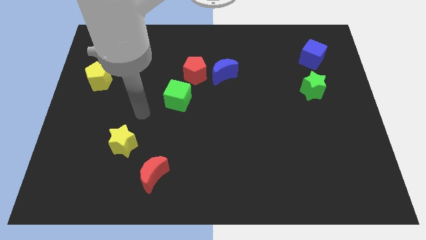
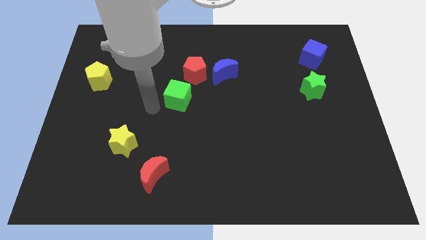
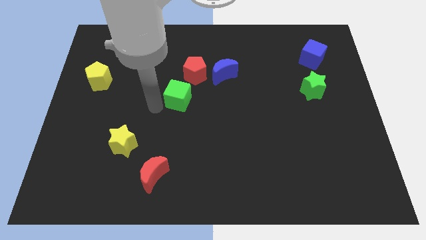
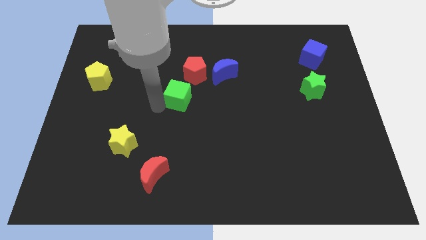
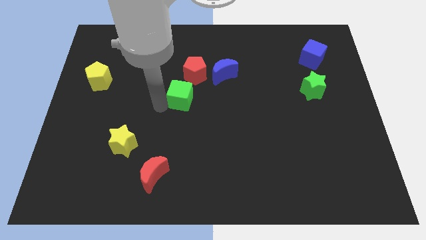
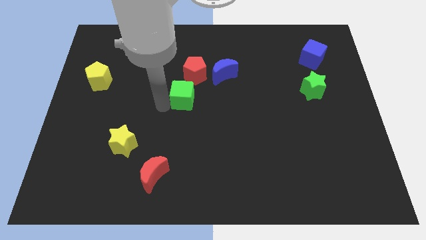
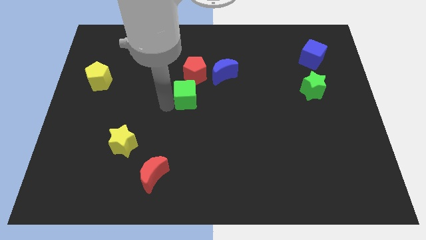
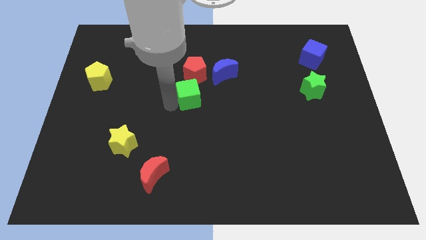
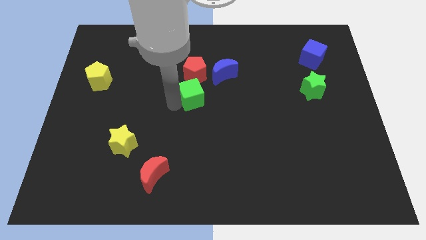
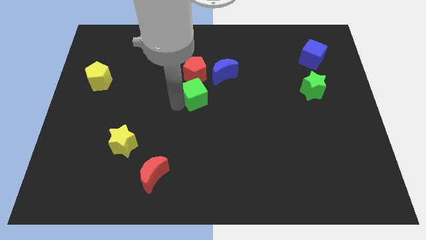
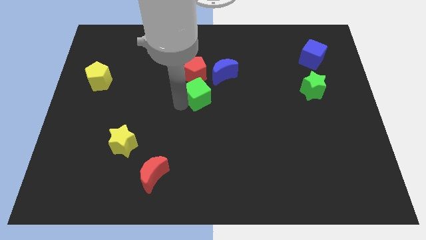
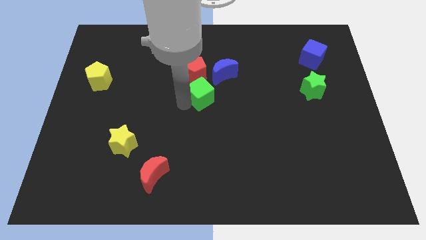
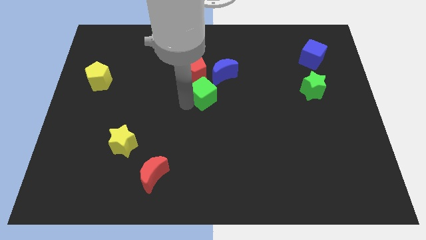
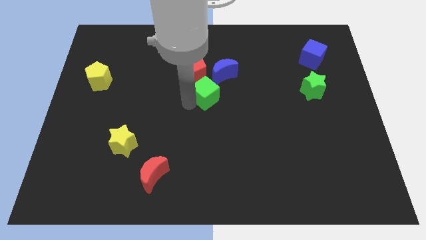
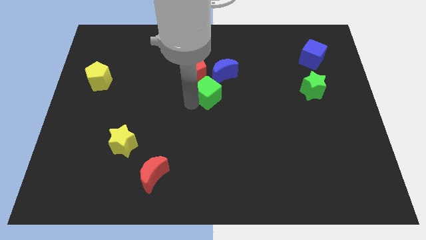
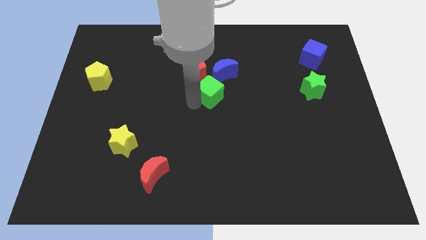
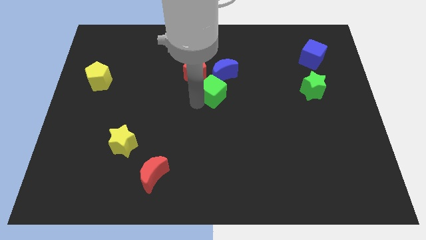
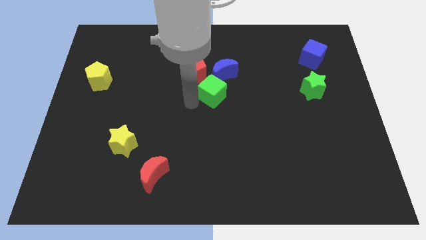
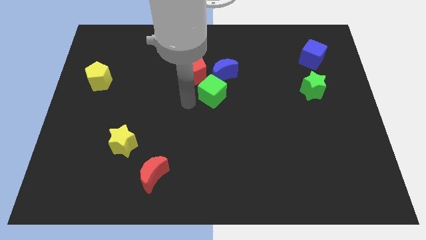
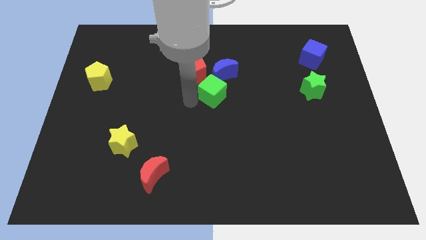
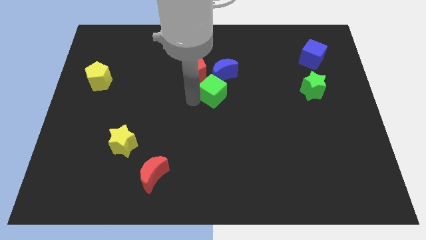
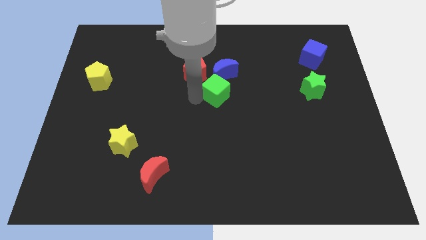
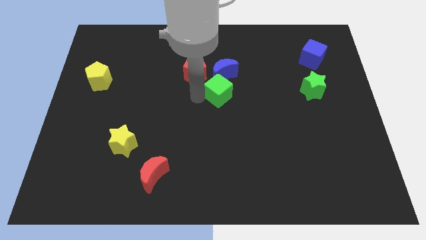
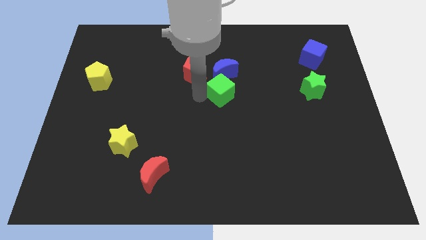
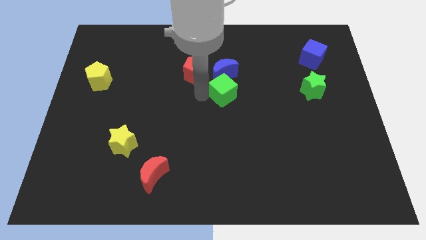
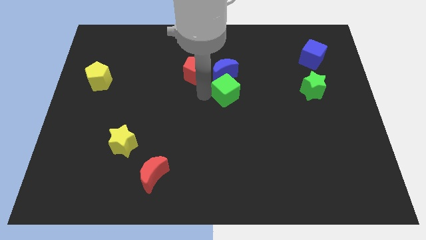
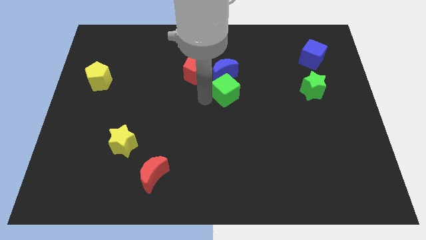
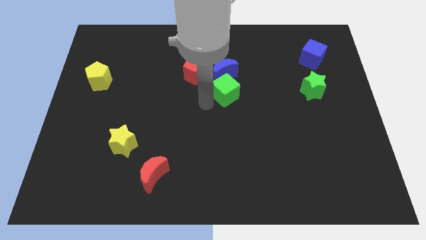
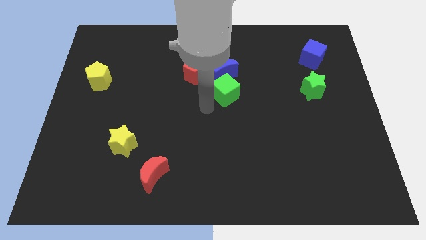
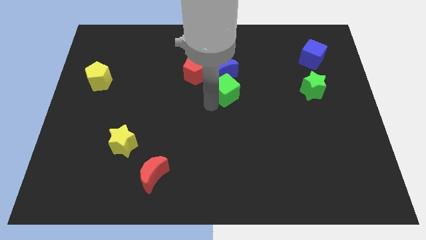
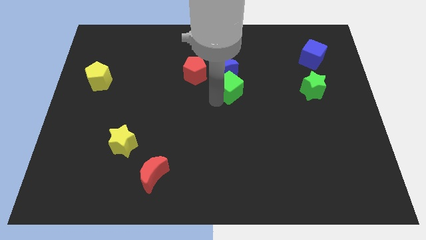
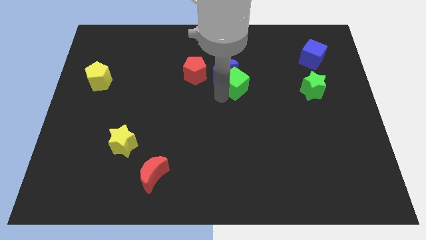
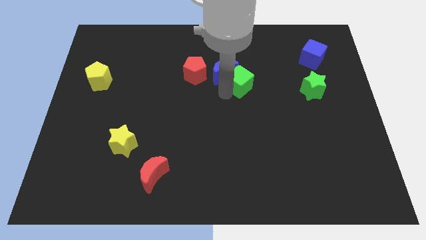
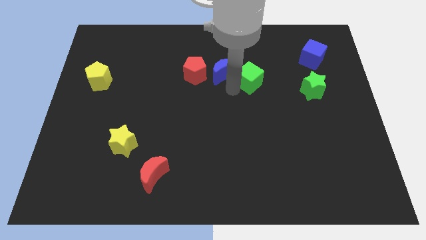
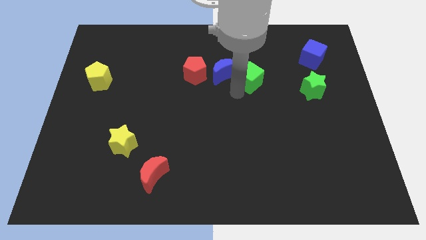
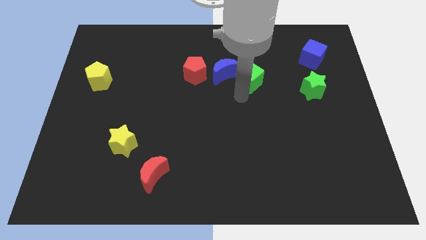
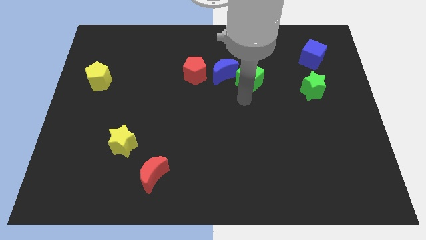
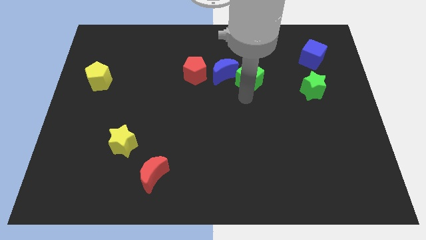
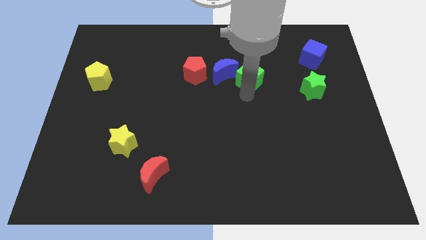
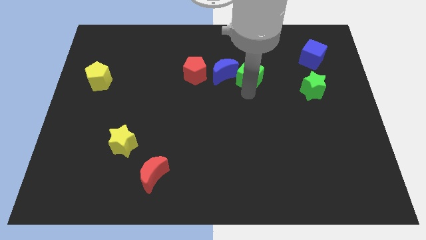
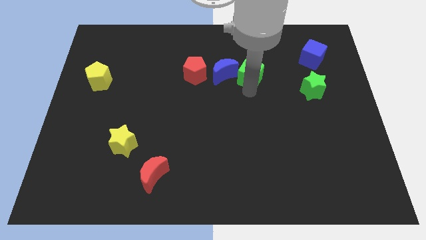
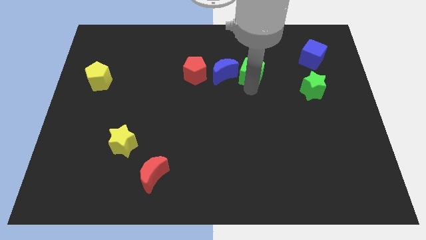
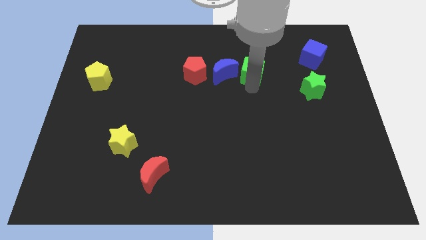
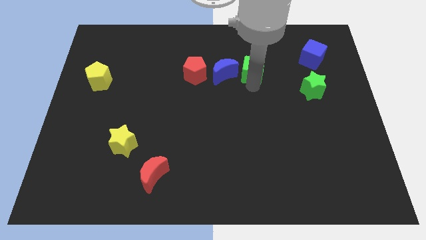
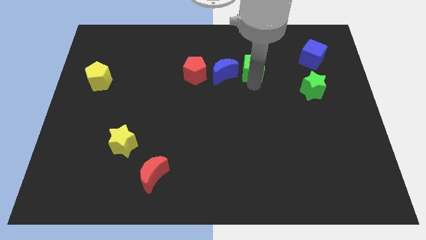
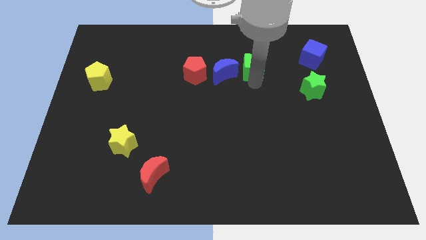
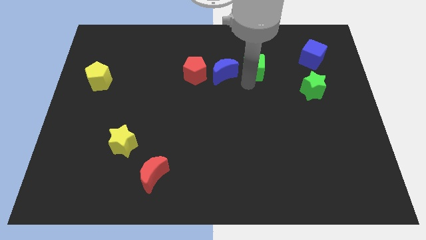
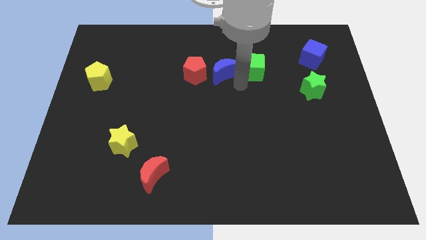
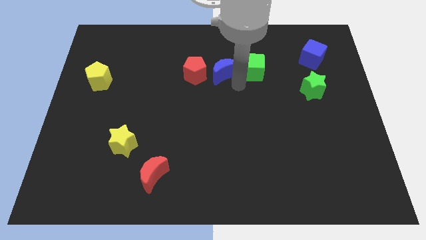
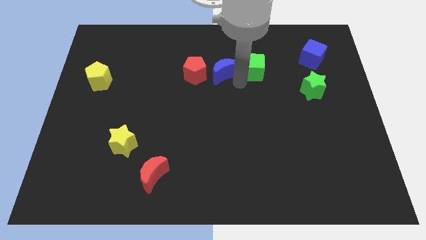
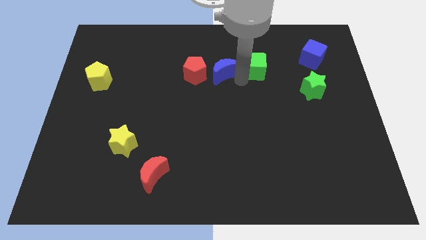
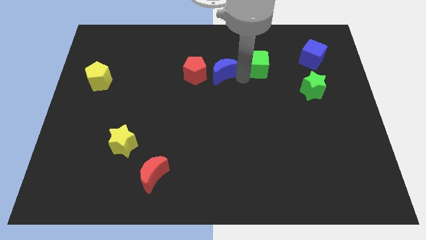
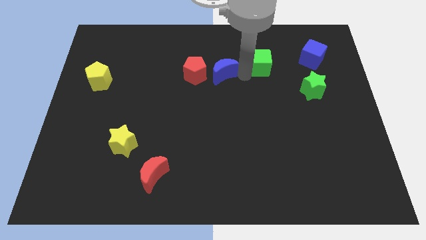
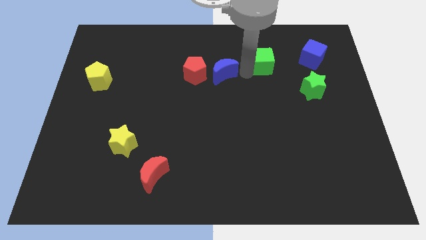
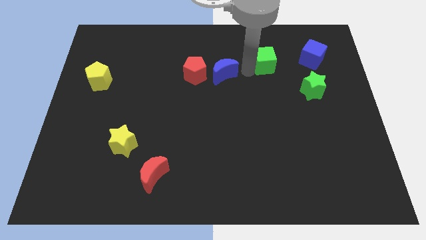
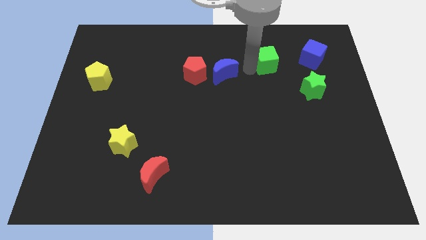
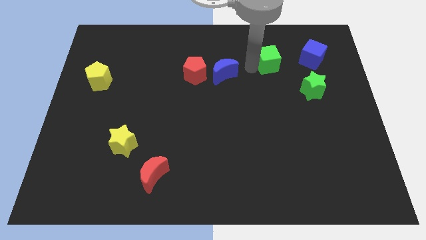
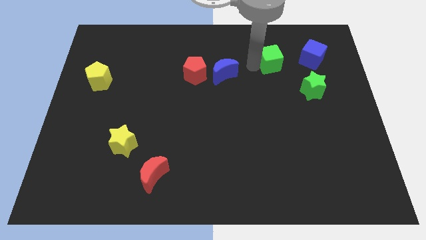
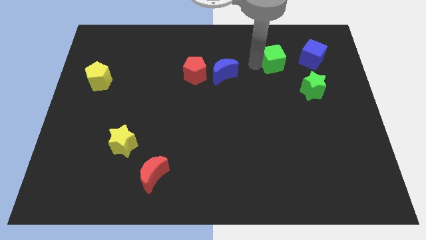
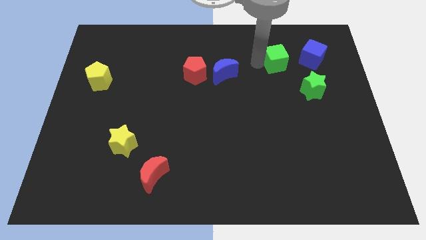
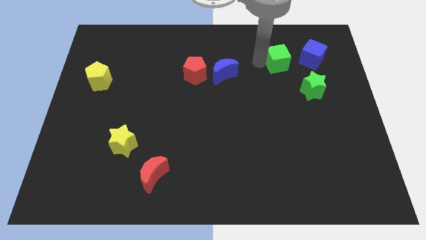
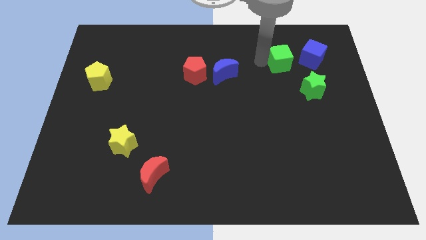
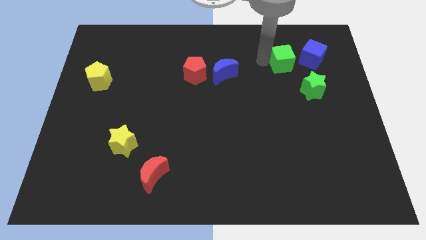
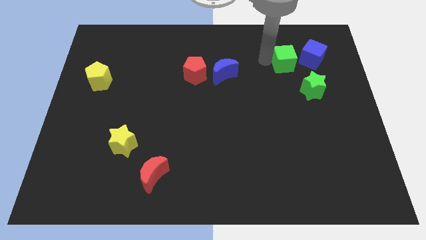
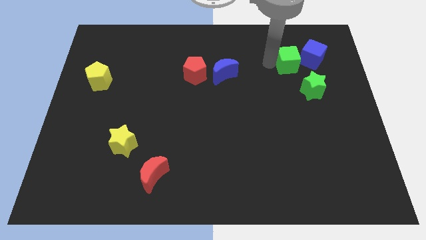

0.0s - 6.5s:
put the green cube to the top of the green star
